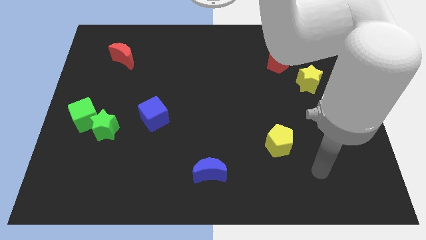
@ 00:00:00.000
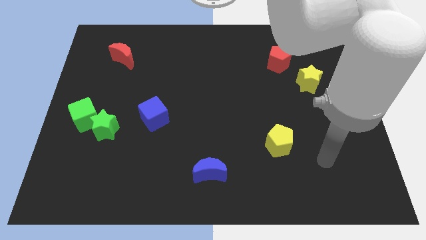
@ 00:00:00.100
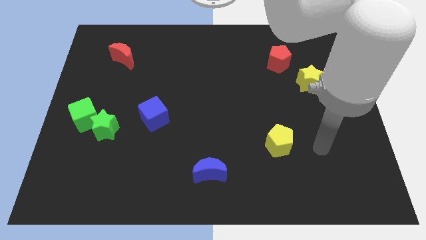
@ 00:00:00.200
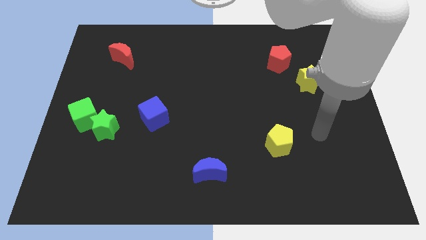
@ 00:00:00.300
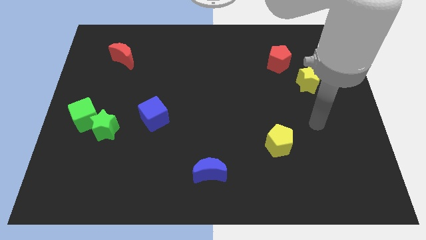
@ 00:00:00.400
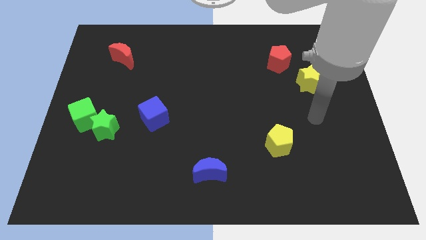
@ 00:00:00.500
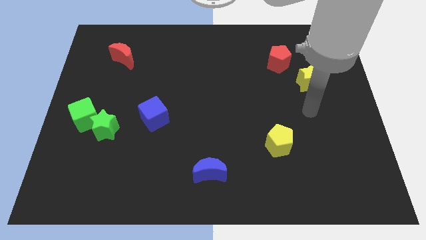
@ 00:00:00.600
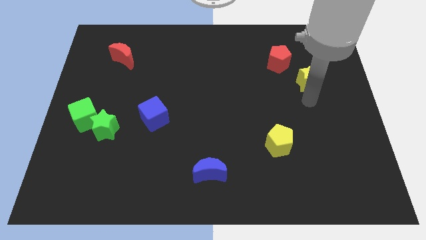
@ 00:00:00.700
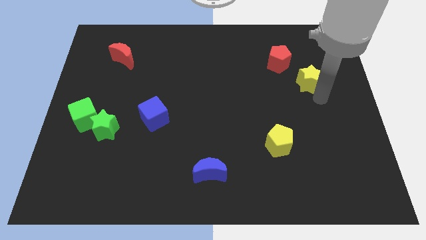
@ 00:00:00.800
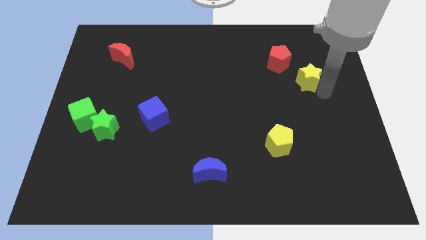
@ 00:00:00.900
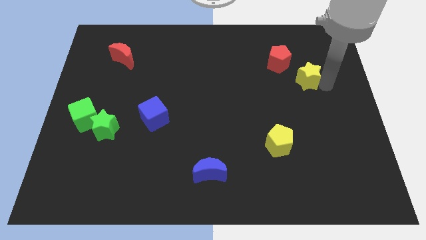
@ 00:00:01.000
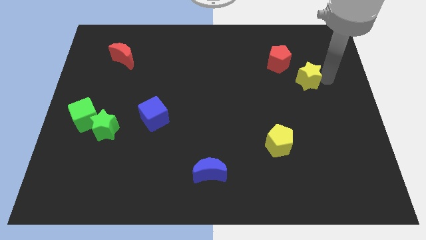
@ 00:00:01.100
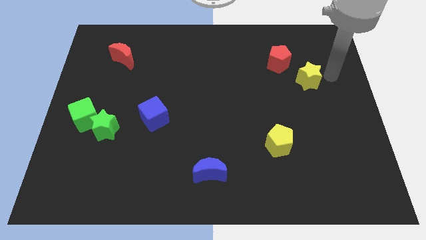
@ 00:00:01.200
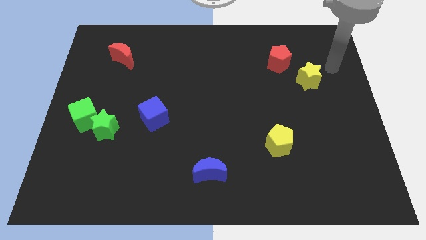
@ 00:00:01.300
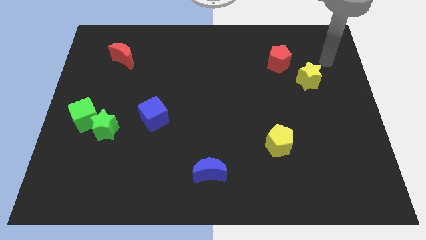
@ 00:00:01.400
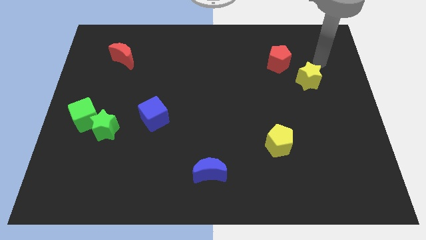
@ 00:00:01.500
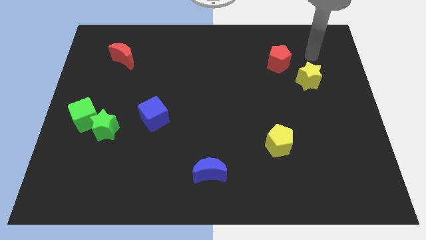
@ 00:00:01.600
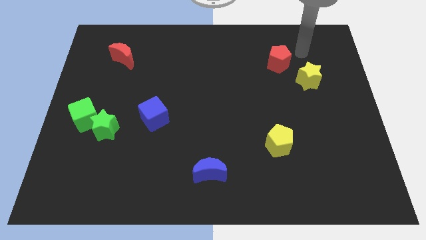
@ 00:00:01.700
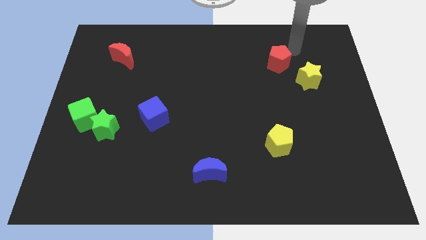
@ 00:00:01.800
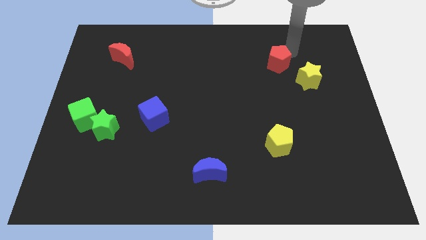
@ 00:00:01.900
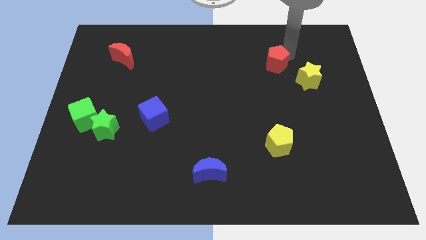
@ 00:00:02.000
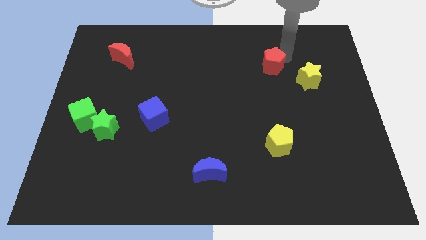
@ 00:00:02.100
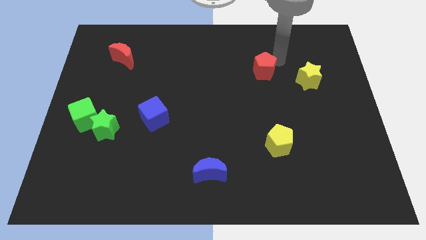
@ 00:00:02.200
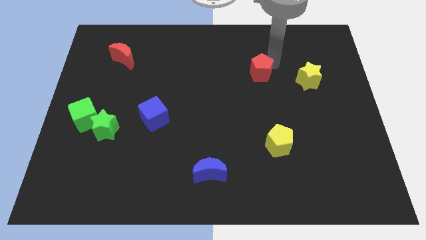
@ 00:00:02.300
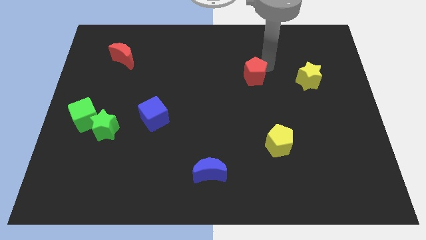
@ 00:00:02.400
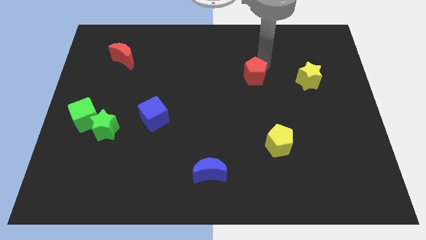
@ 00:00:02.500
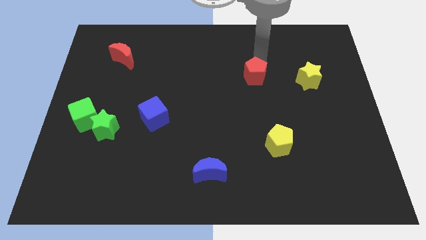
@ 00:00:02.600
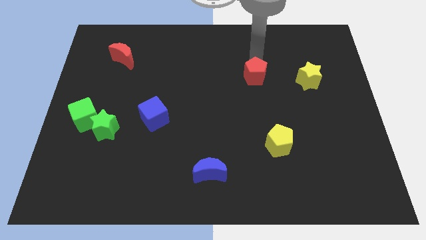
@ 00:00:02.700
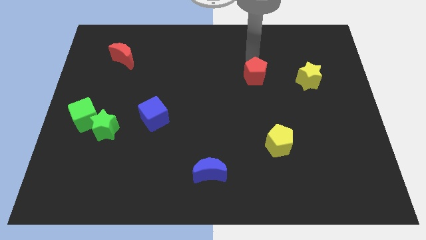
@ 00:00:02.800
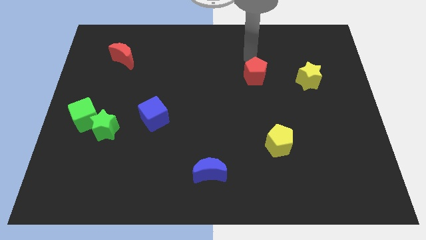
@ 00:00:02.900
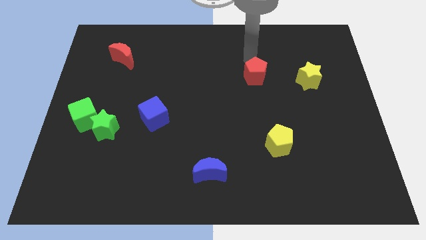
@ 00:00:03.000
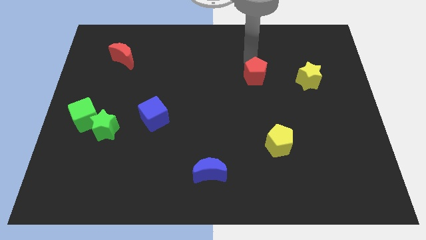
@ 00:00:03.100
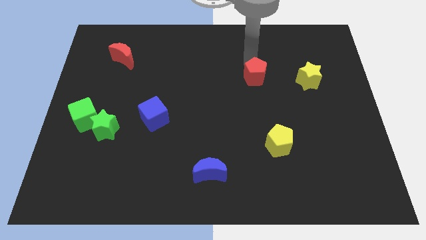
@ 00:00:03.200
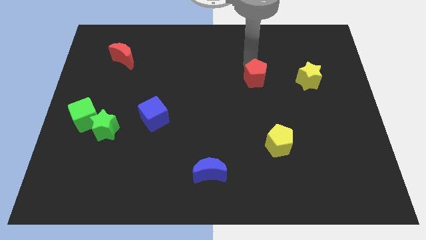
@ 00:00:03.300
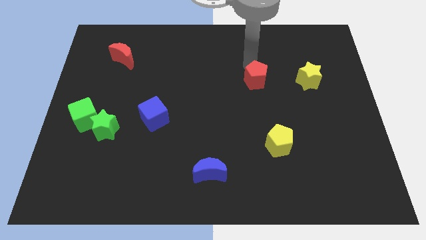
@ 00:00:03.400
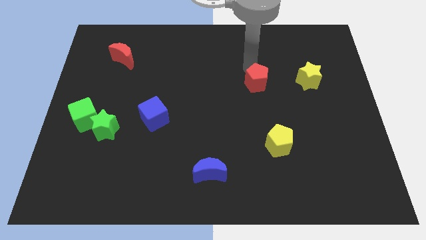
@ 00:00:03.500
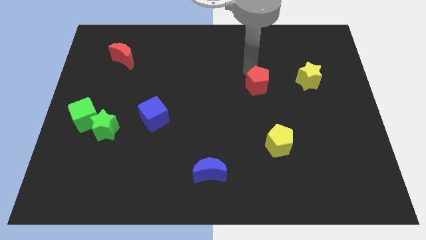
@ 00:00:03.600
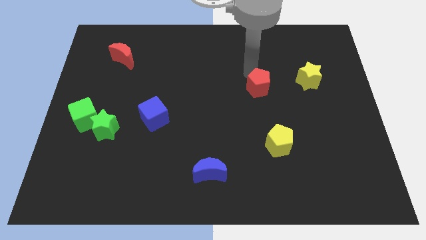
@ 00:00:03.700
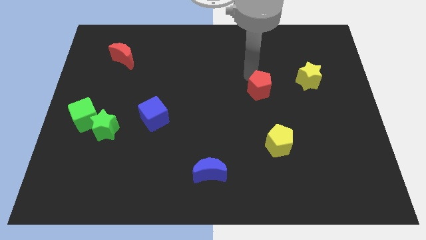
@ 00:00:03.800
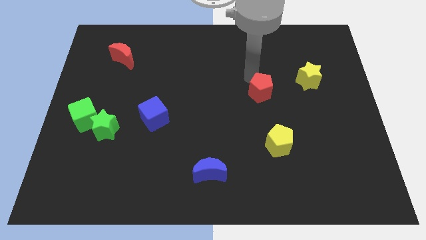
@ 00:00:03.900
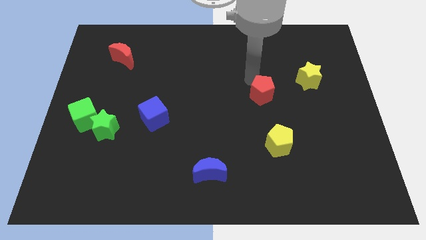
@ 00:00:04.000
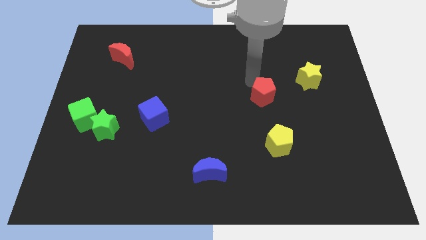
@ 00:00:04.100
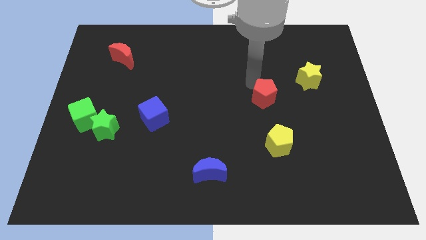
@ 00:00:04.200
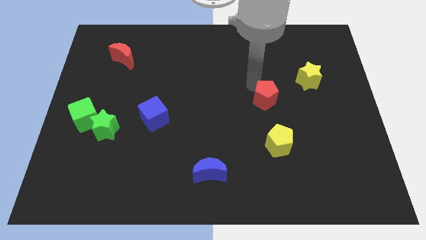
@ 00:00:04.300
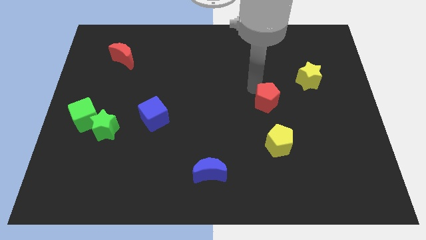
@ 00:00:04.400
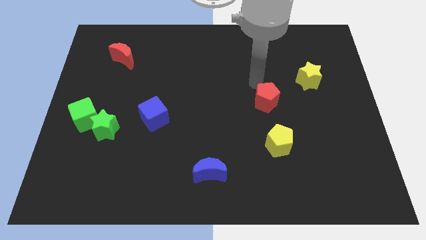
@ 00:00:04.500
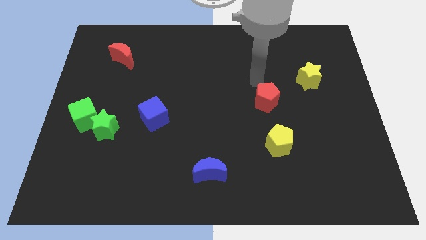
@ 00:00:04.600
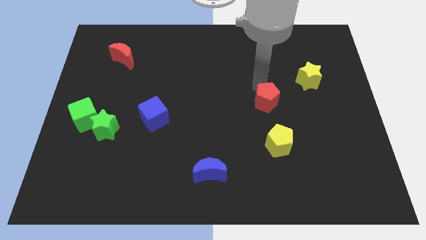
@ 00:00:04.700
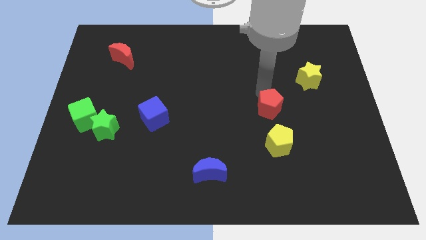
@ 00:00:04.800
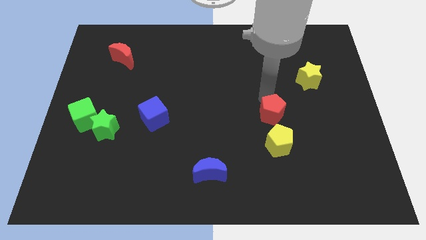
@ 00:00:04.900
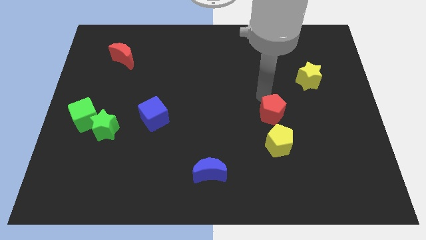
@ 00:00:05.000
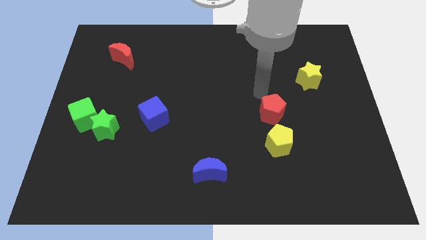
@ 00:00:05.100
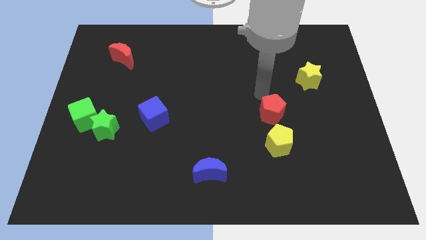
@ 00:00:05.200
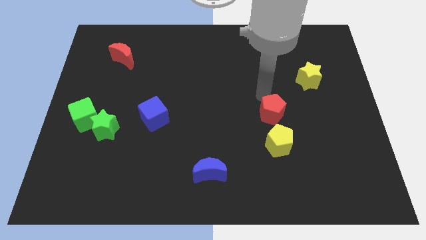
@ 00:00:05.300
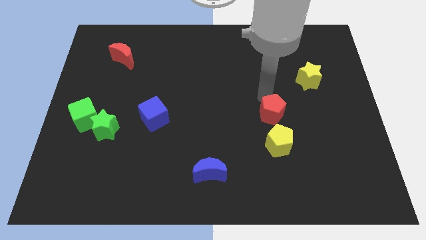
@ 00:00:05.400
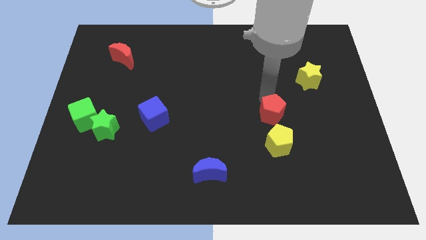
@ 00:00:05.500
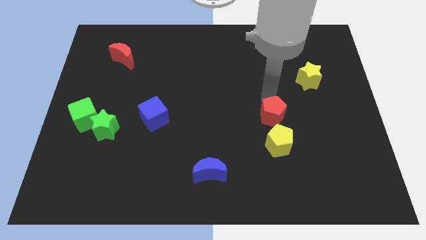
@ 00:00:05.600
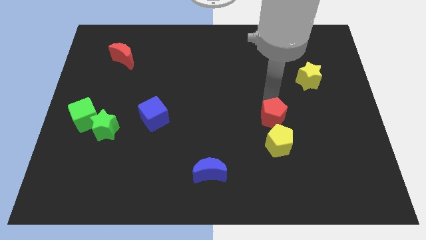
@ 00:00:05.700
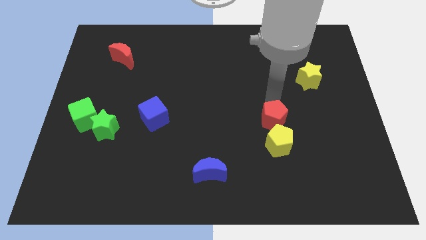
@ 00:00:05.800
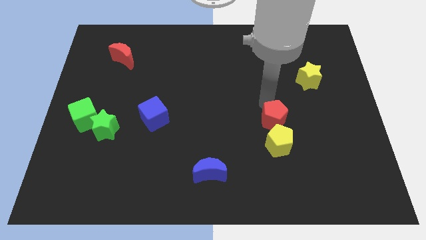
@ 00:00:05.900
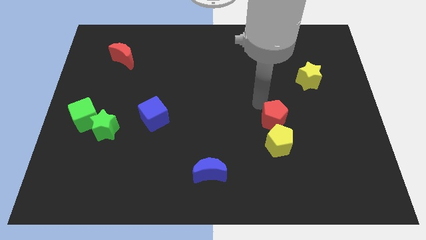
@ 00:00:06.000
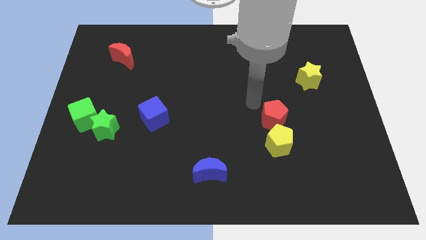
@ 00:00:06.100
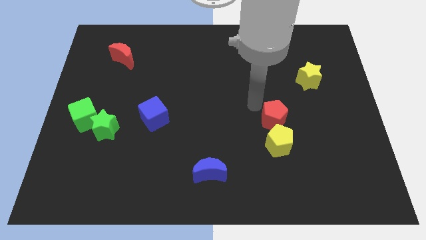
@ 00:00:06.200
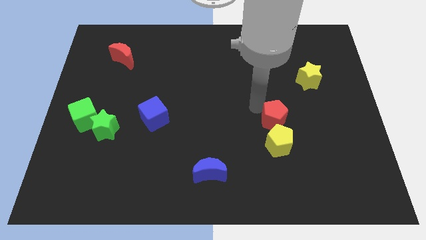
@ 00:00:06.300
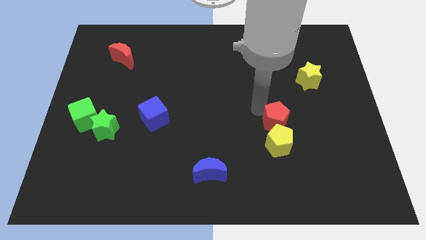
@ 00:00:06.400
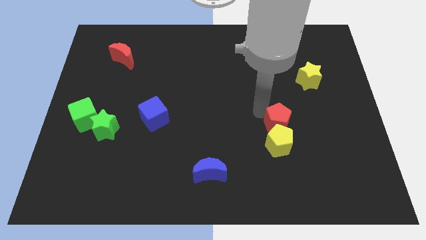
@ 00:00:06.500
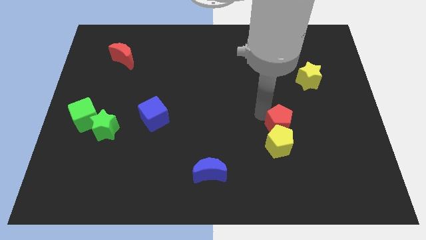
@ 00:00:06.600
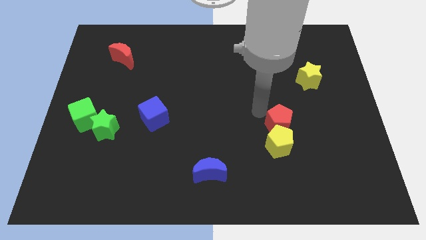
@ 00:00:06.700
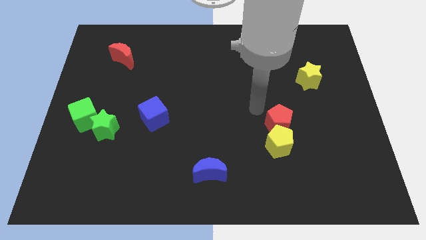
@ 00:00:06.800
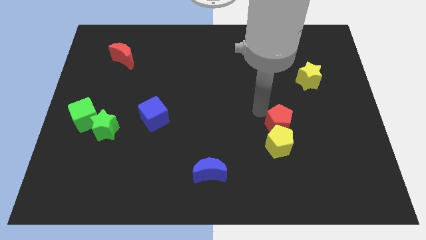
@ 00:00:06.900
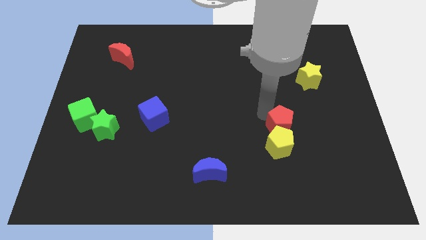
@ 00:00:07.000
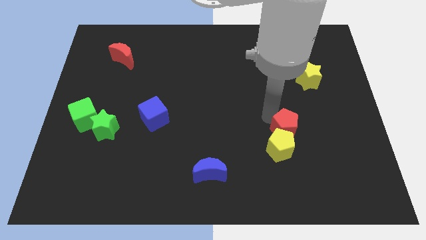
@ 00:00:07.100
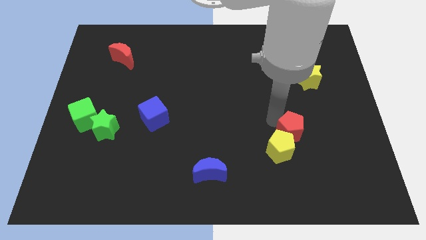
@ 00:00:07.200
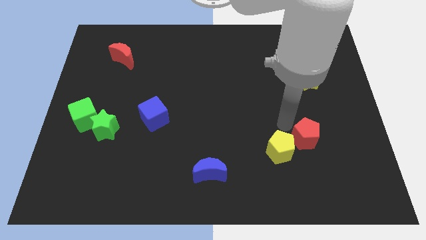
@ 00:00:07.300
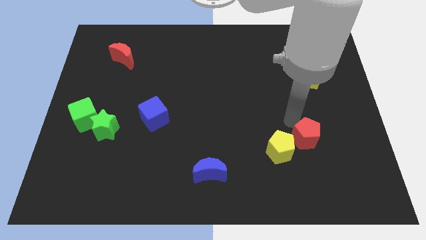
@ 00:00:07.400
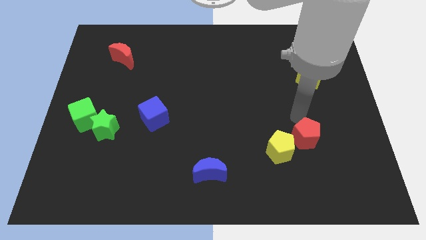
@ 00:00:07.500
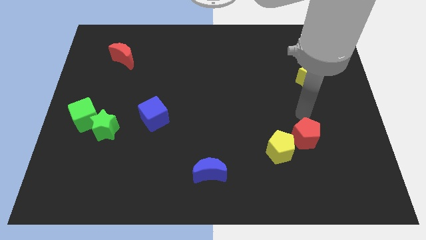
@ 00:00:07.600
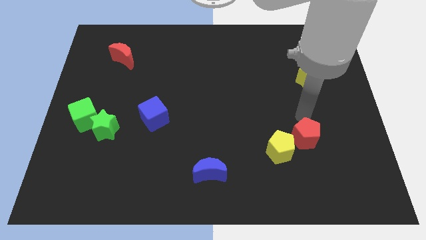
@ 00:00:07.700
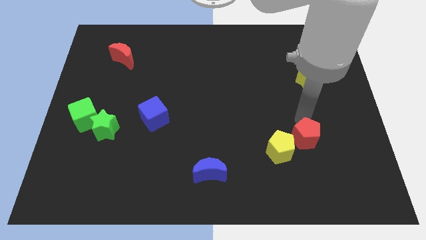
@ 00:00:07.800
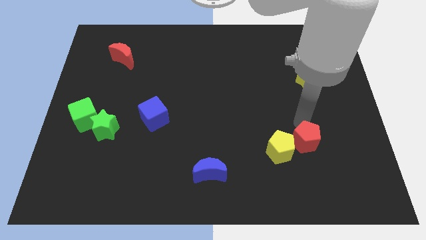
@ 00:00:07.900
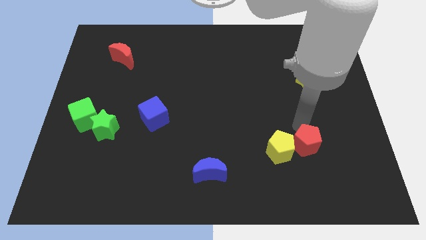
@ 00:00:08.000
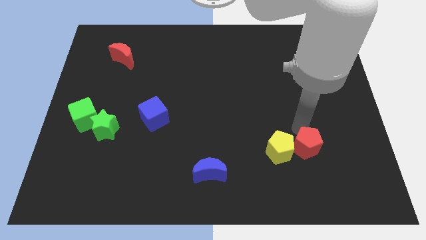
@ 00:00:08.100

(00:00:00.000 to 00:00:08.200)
push the red pentagon to the bottom right of the yellow pentagon
